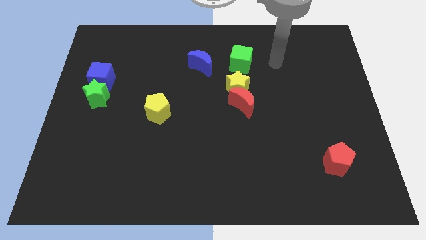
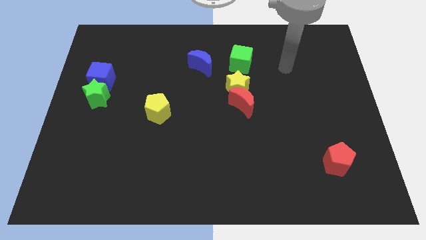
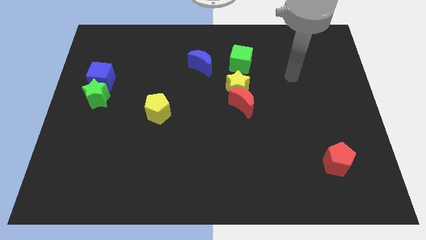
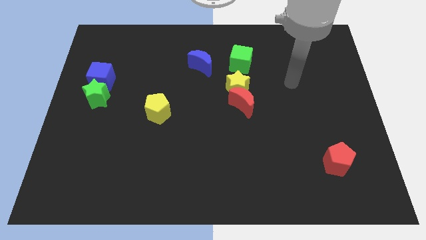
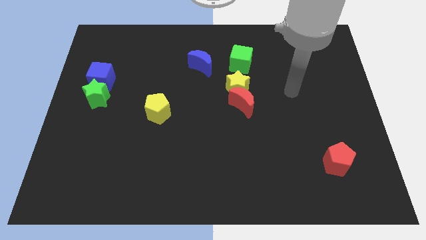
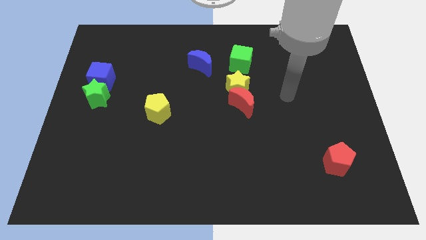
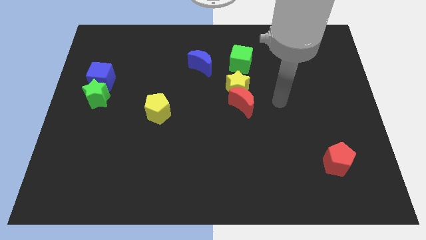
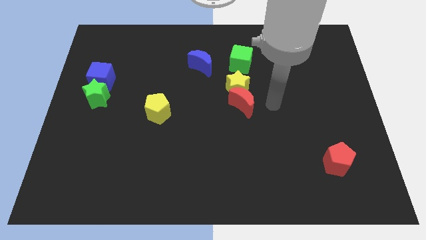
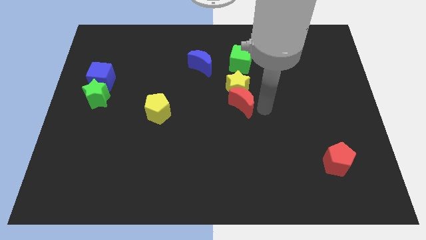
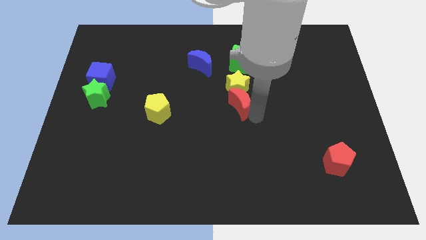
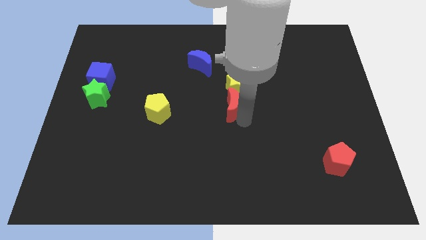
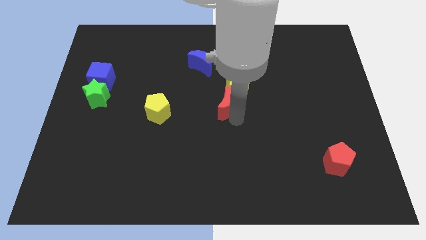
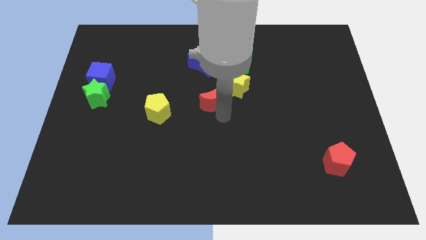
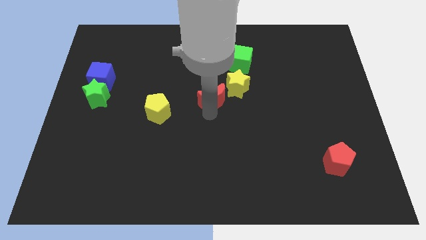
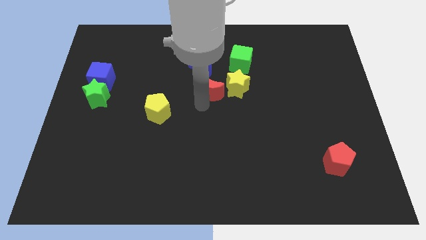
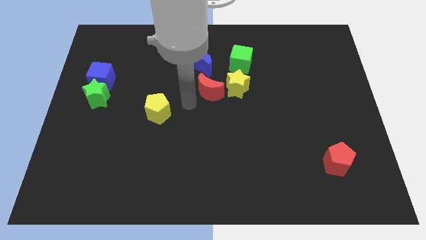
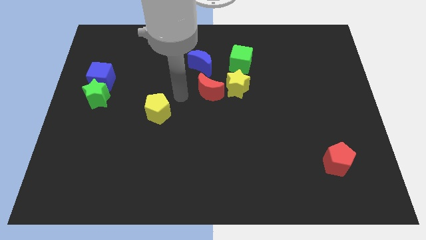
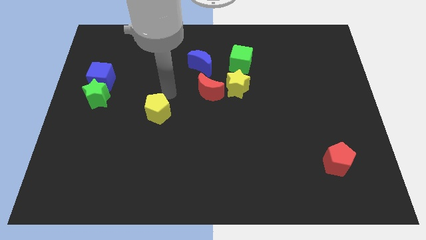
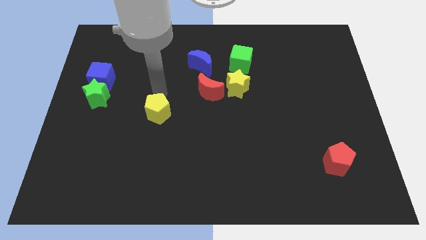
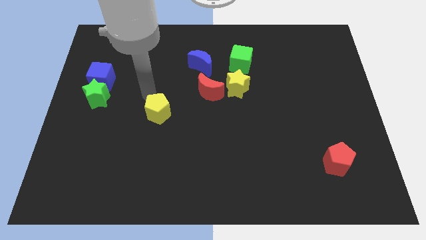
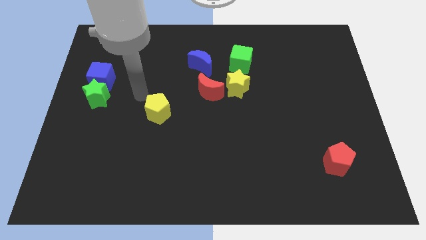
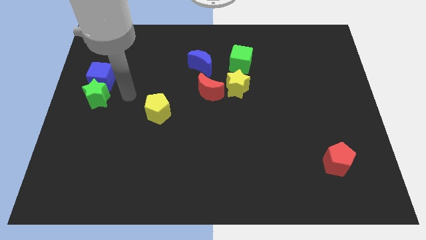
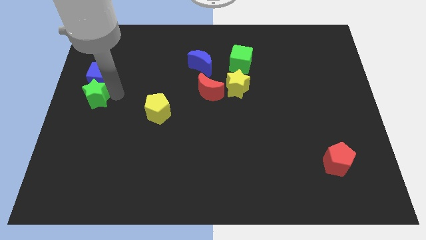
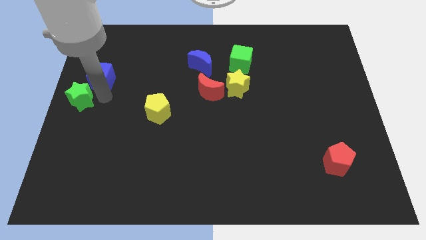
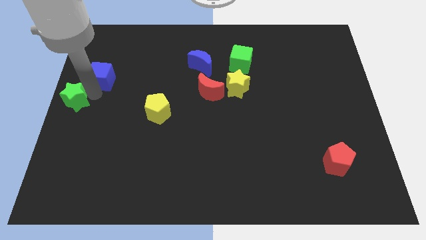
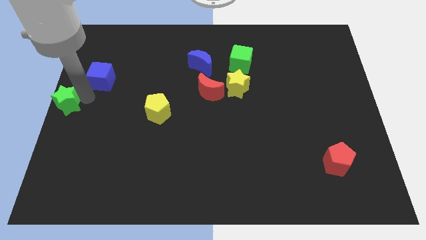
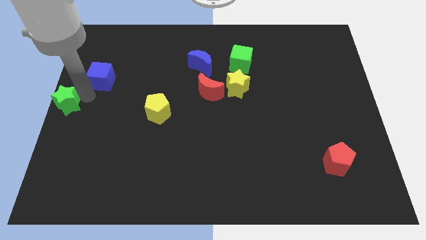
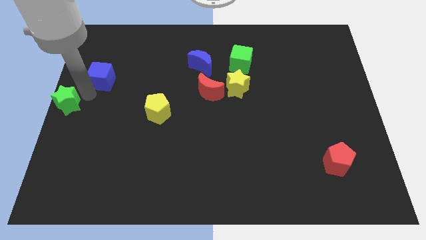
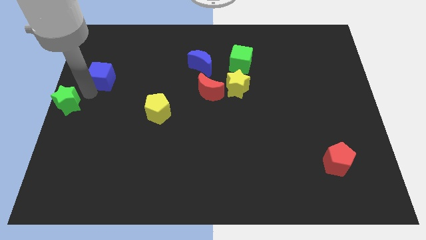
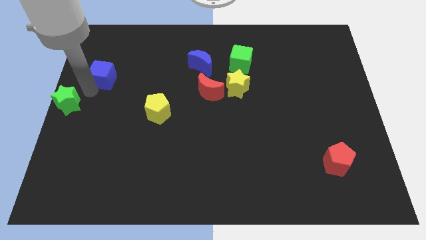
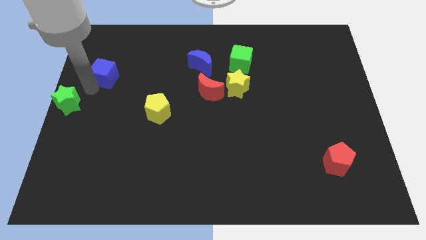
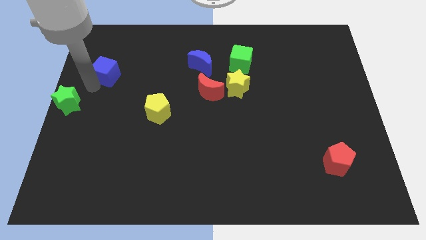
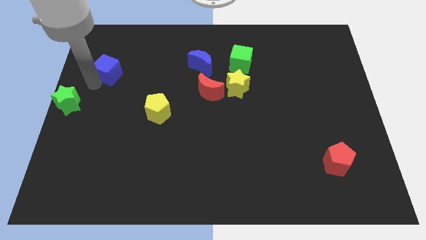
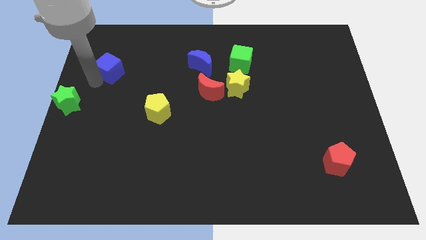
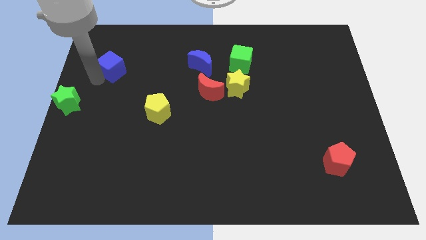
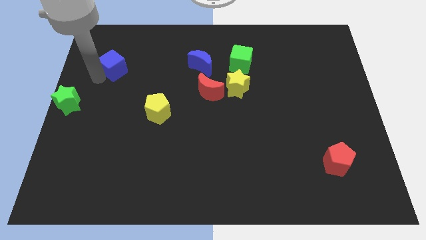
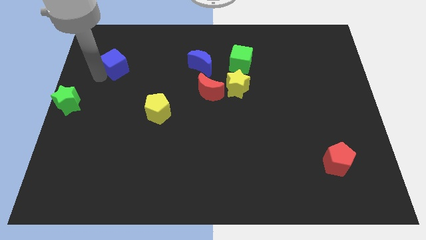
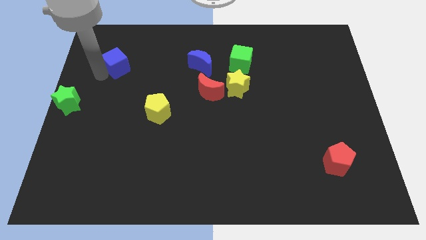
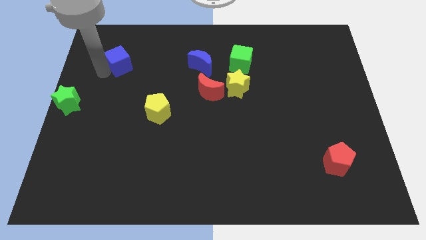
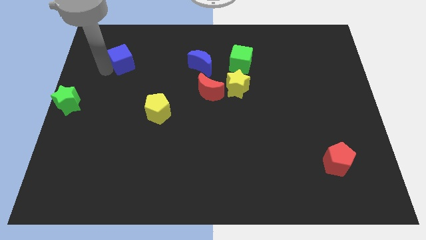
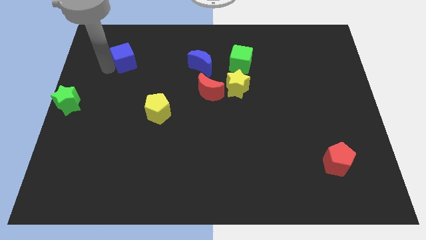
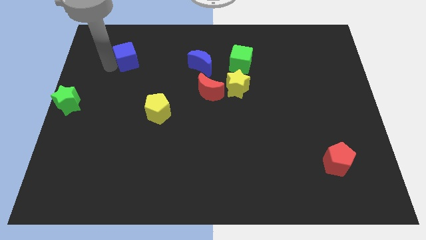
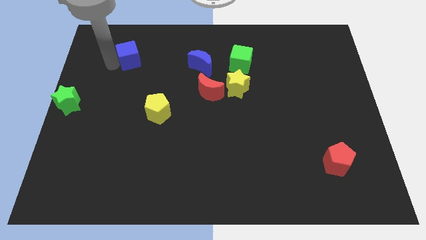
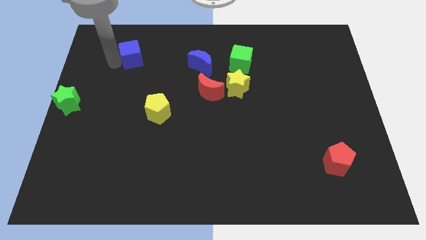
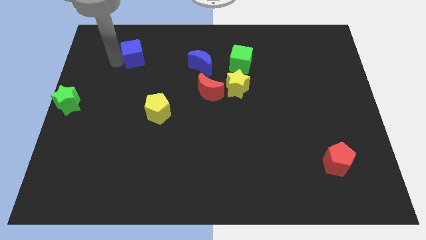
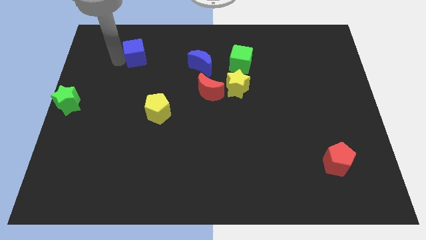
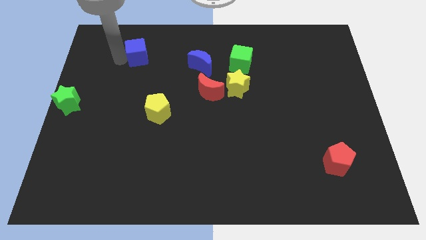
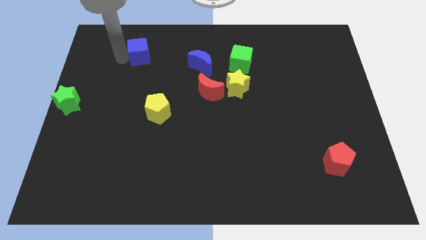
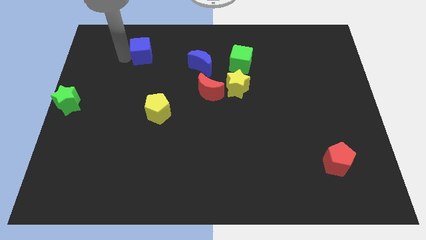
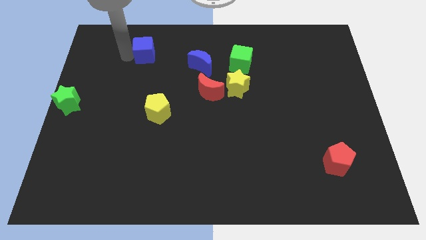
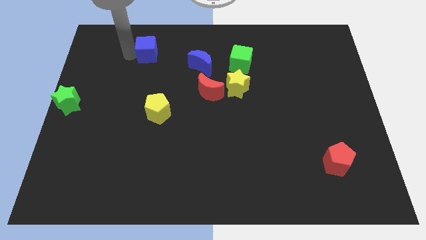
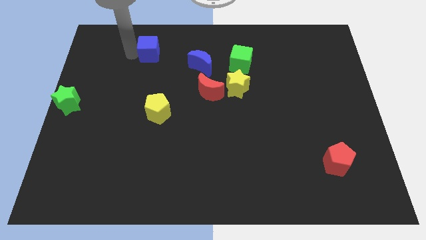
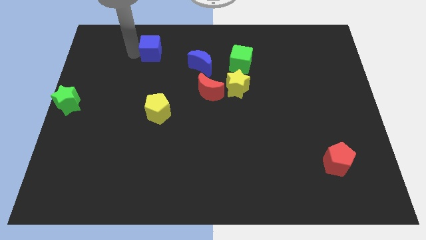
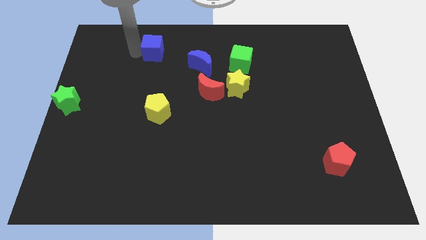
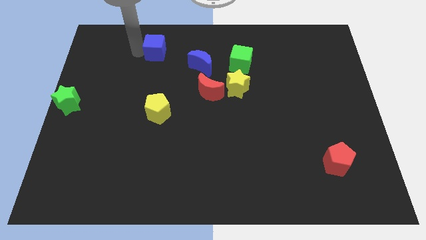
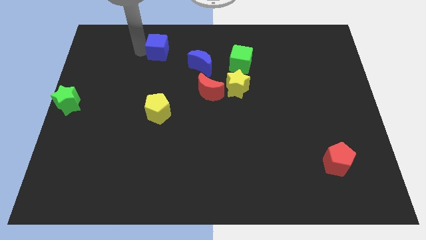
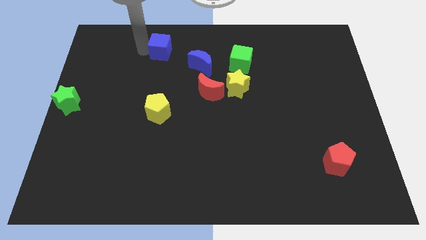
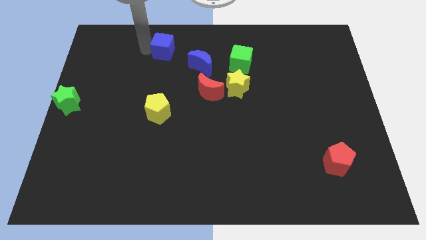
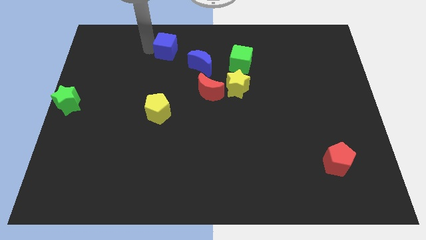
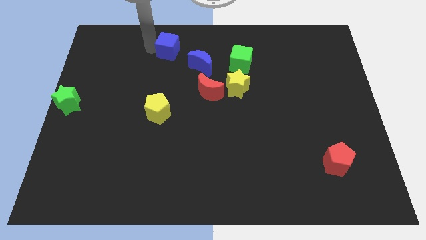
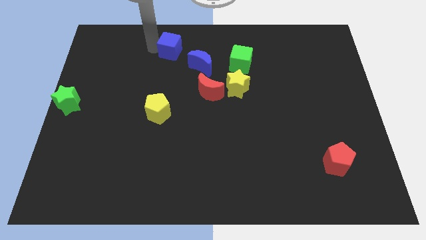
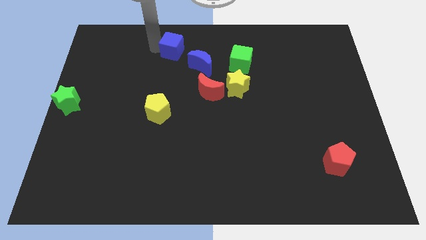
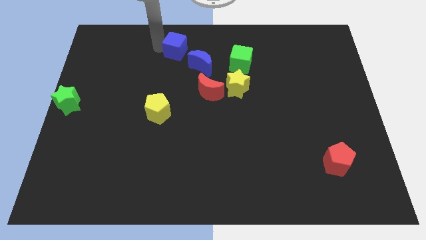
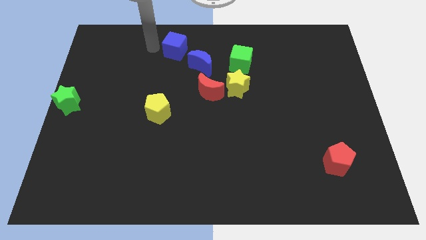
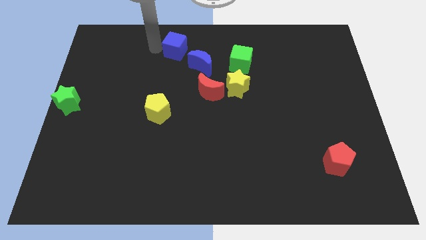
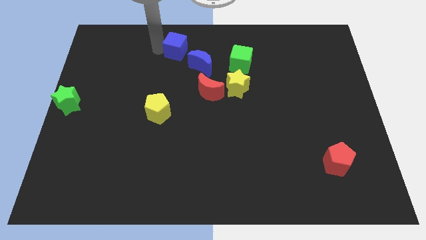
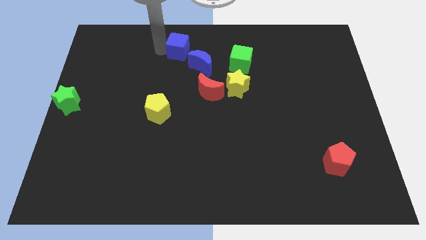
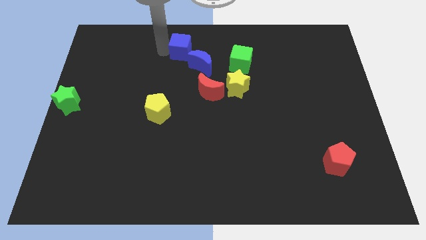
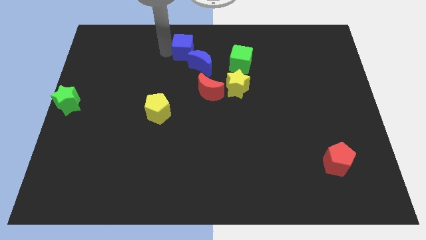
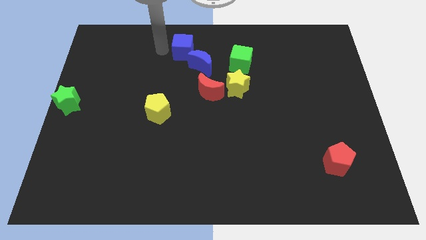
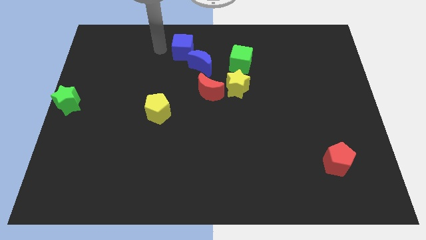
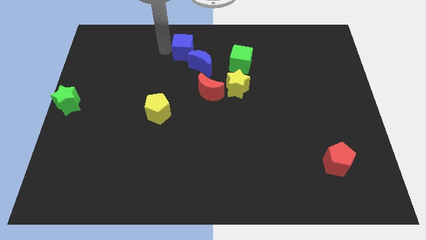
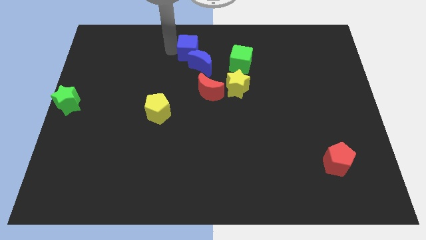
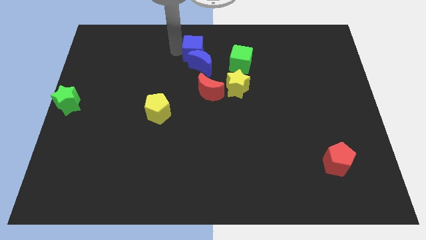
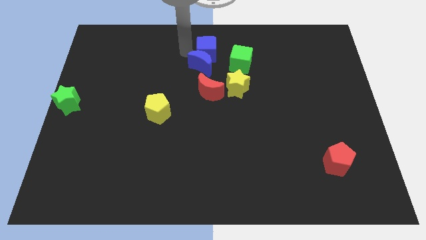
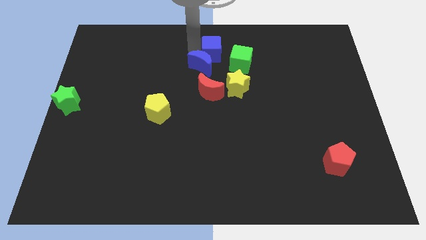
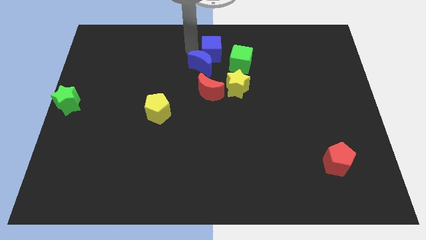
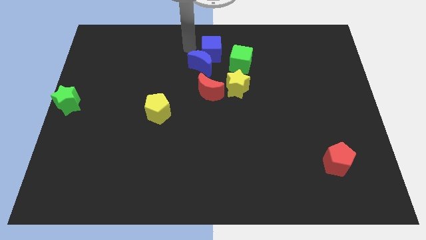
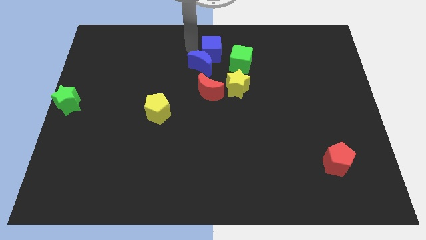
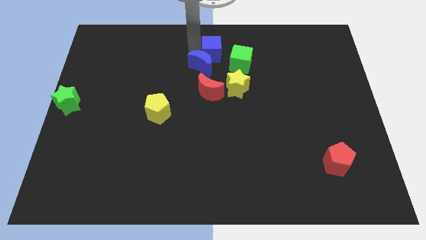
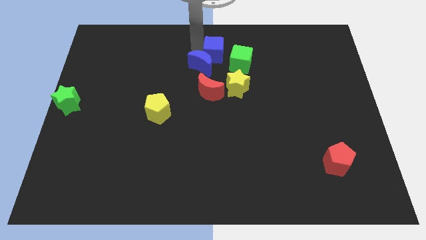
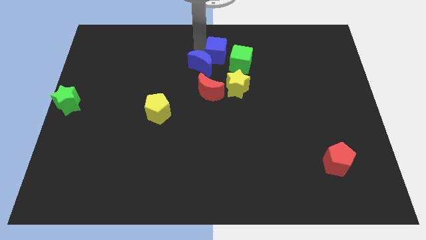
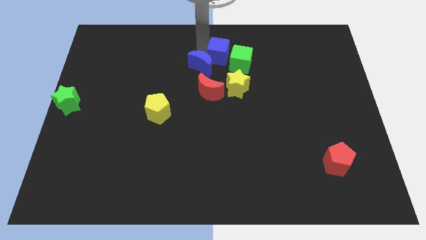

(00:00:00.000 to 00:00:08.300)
push the blue cube to the top side of the yellow star
